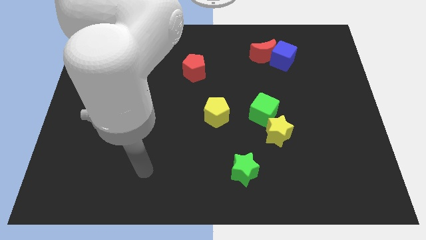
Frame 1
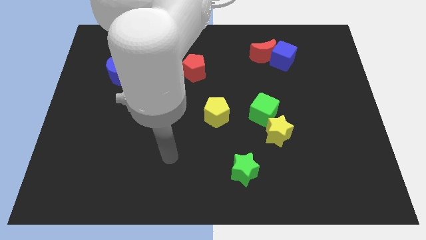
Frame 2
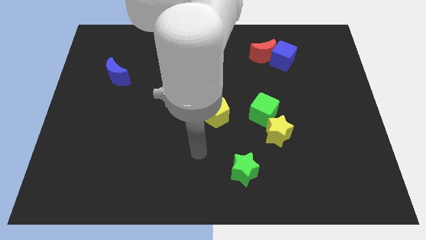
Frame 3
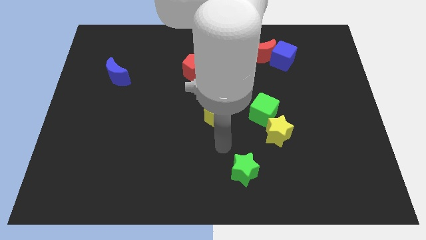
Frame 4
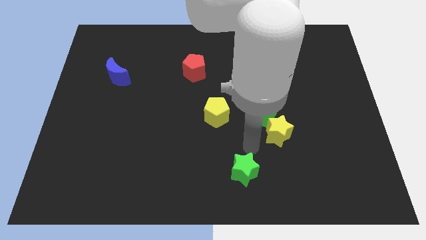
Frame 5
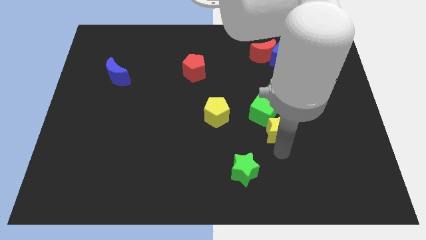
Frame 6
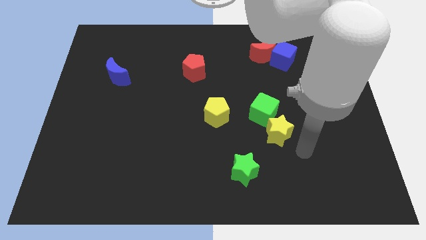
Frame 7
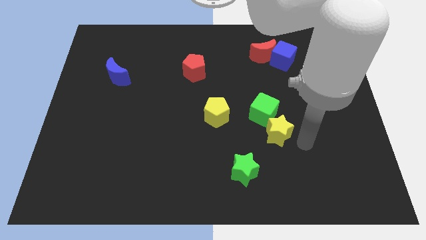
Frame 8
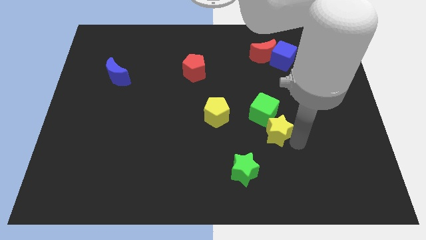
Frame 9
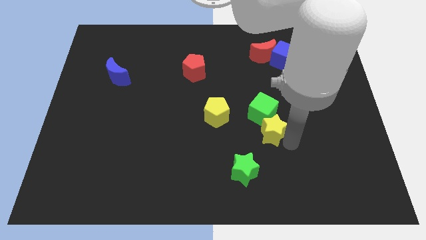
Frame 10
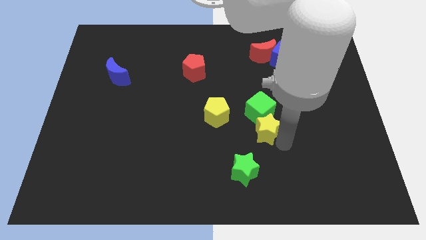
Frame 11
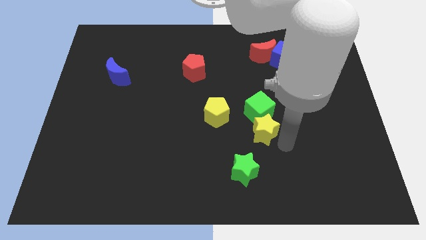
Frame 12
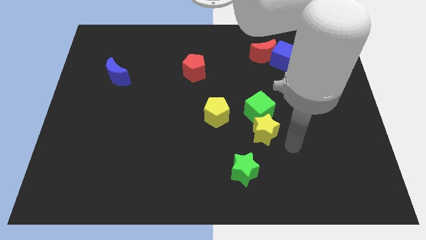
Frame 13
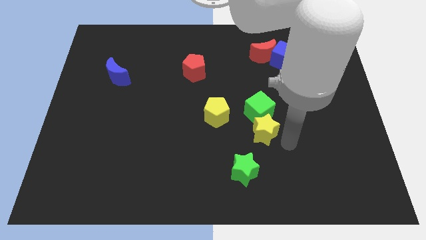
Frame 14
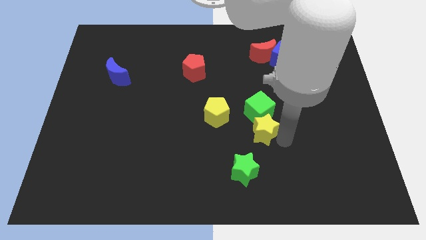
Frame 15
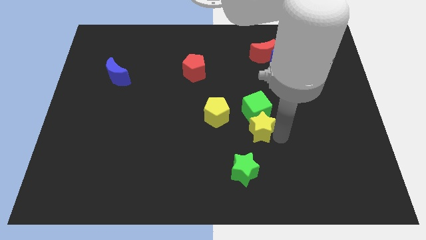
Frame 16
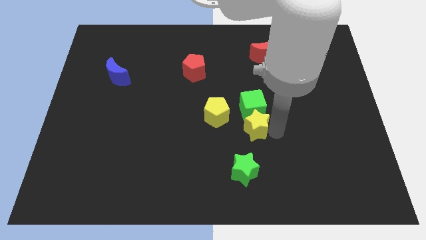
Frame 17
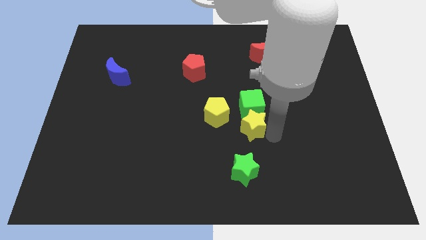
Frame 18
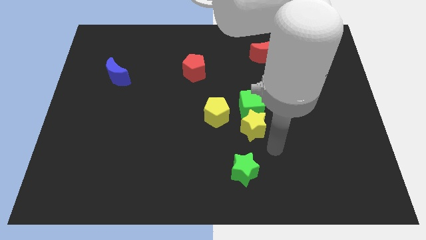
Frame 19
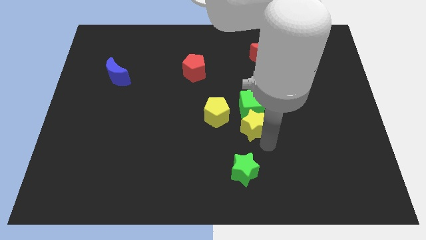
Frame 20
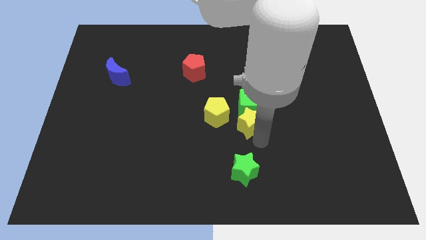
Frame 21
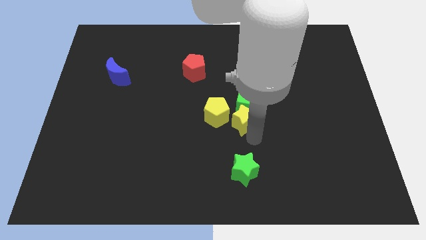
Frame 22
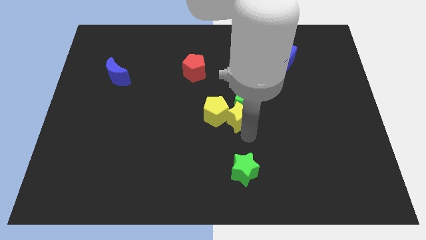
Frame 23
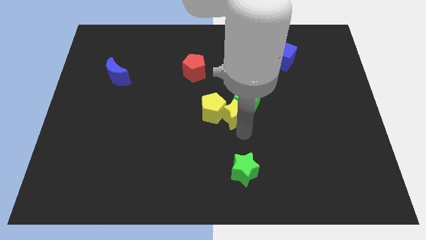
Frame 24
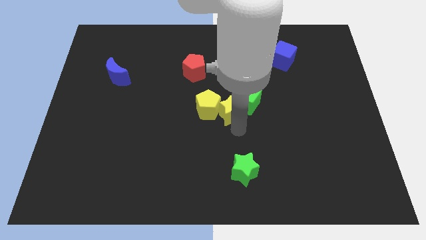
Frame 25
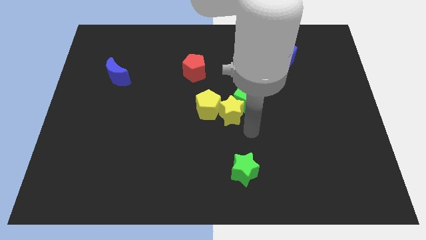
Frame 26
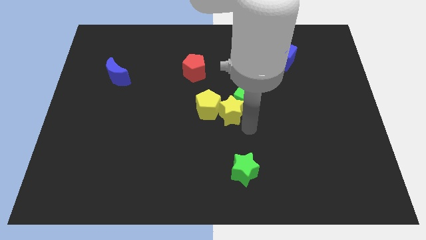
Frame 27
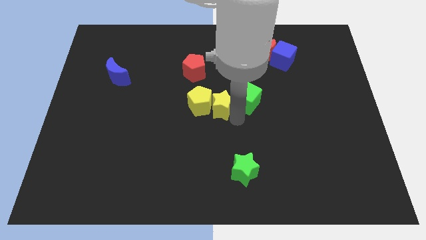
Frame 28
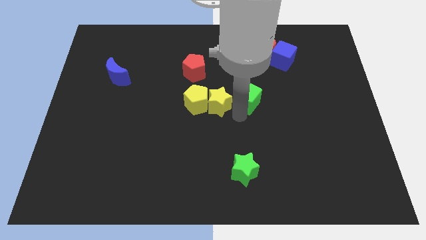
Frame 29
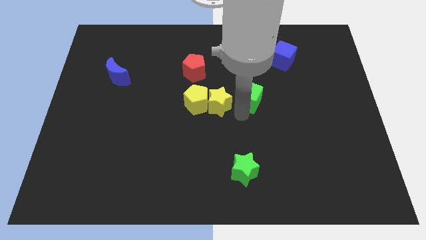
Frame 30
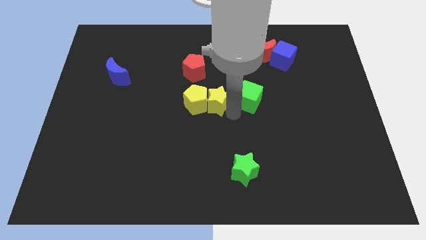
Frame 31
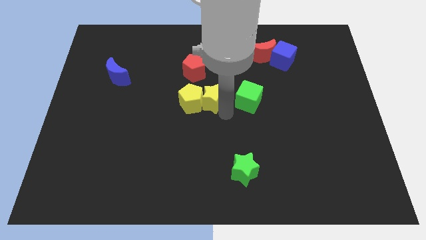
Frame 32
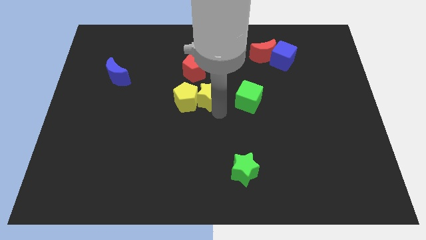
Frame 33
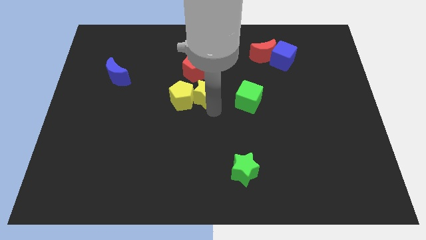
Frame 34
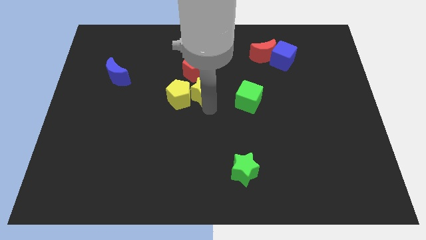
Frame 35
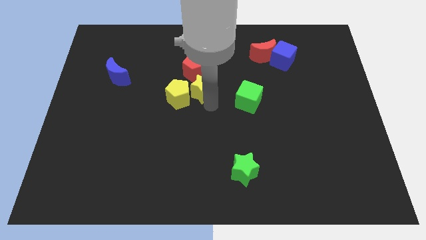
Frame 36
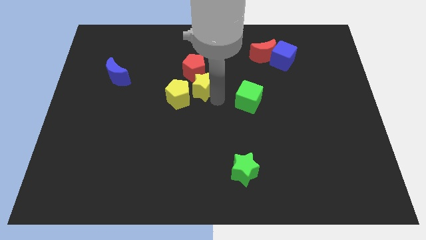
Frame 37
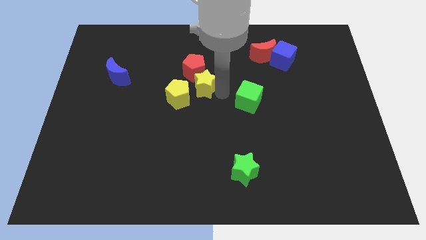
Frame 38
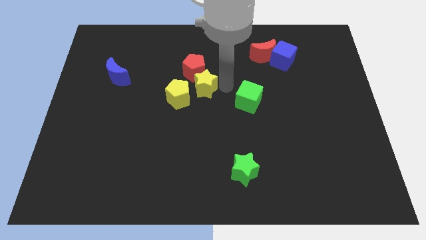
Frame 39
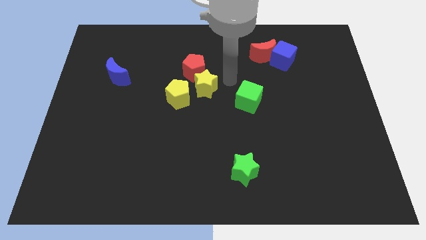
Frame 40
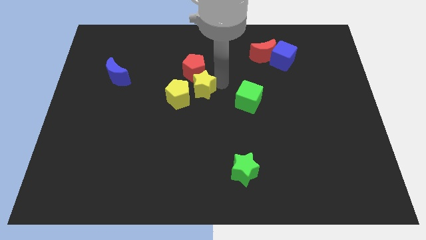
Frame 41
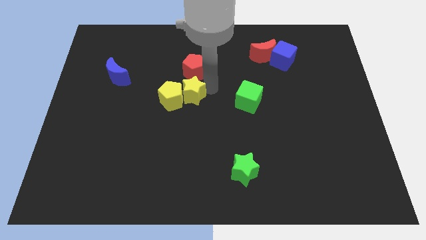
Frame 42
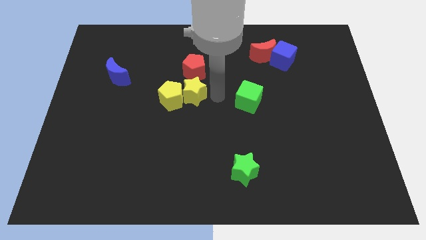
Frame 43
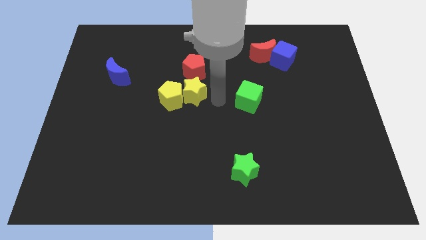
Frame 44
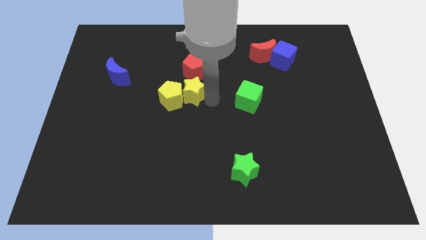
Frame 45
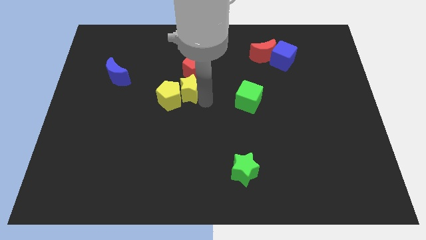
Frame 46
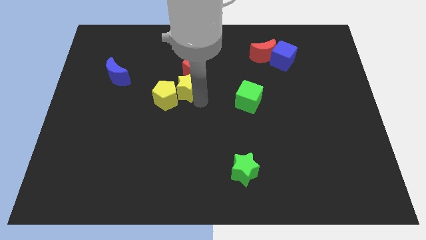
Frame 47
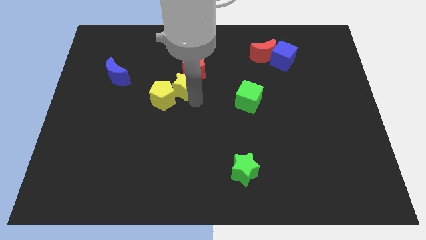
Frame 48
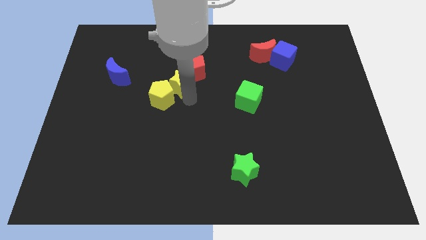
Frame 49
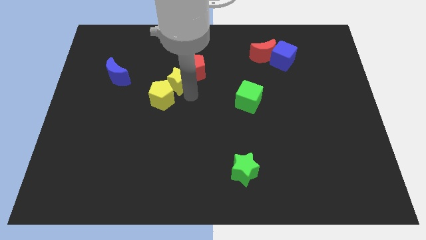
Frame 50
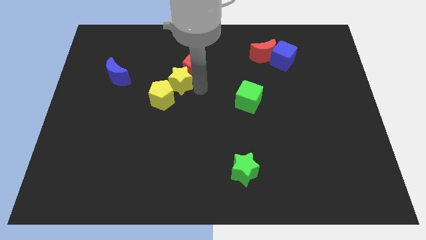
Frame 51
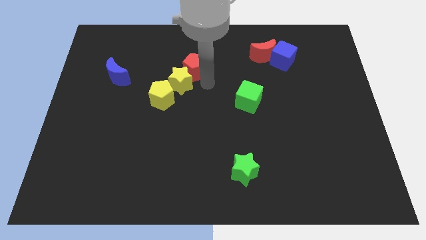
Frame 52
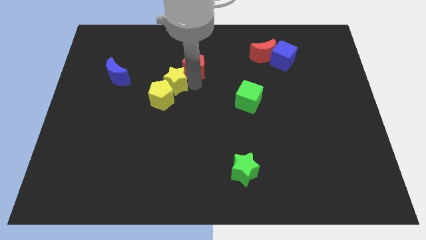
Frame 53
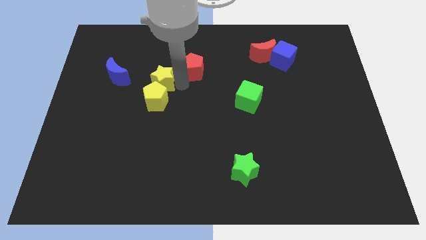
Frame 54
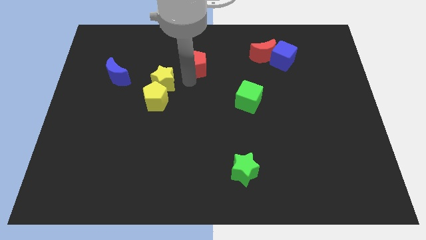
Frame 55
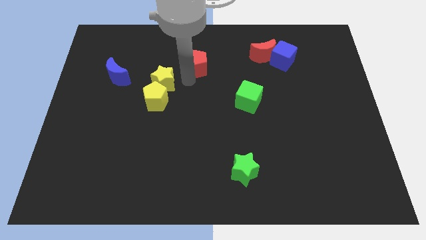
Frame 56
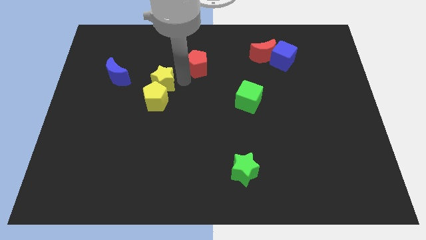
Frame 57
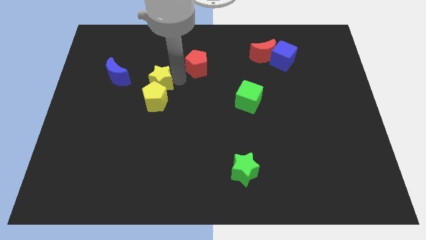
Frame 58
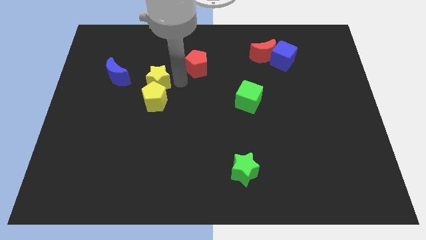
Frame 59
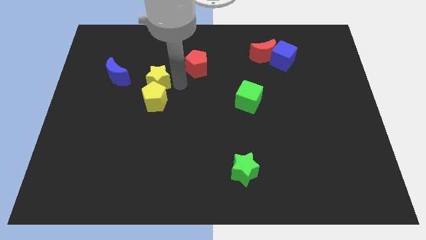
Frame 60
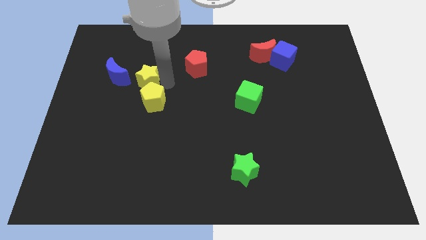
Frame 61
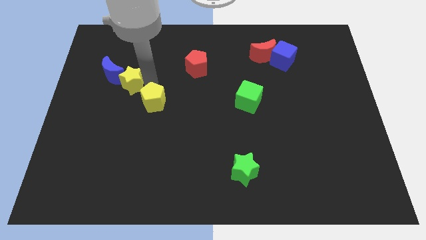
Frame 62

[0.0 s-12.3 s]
slide the yellow star next to the blue moon
